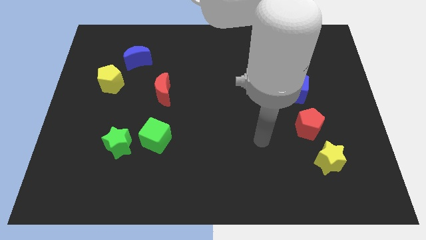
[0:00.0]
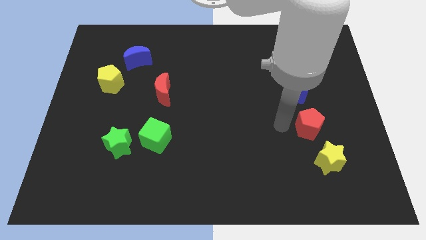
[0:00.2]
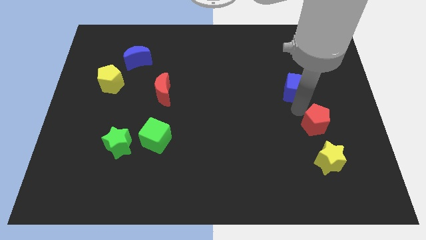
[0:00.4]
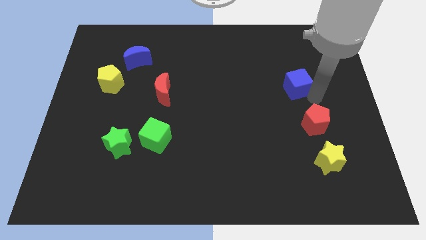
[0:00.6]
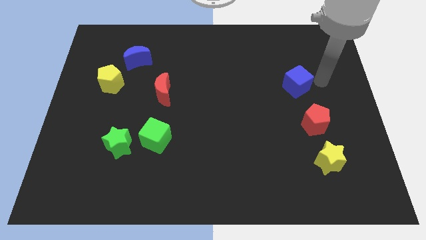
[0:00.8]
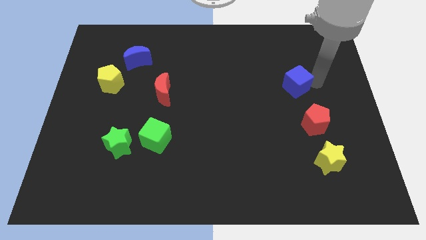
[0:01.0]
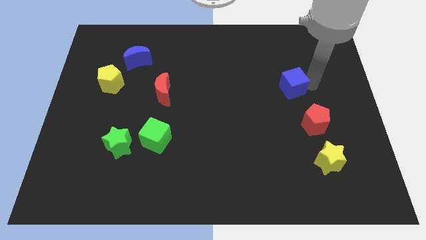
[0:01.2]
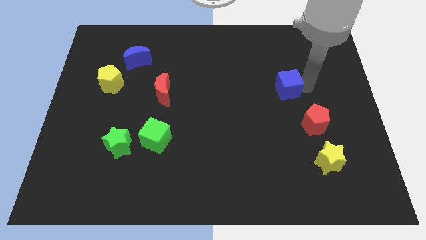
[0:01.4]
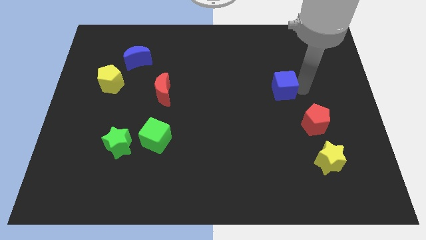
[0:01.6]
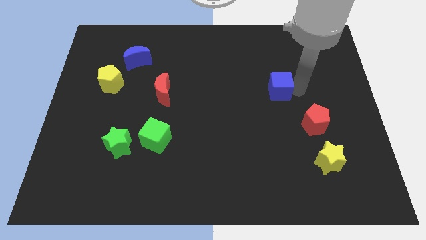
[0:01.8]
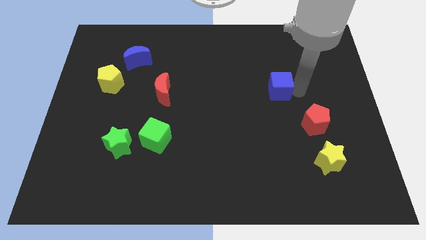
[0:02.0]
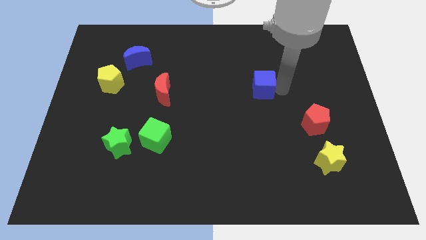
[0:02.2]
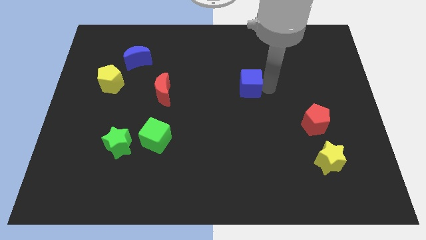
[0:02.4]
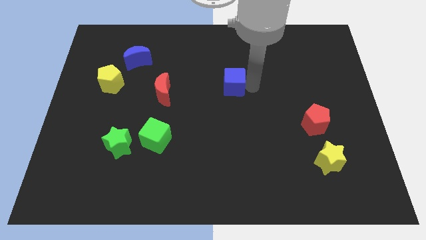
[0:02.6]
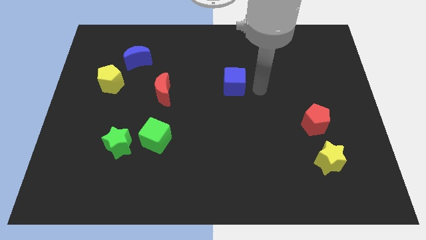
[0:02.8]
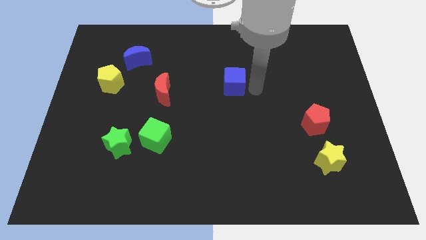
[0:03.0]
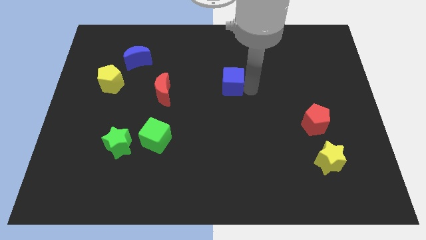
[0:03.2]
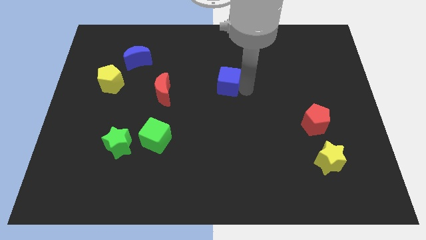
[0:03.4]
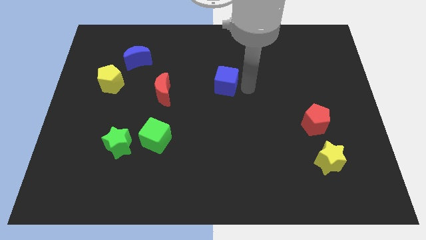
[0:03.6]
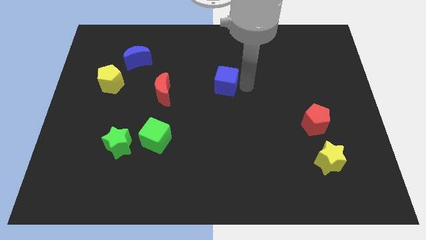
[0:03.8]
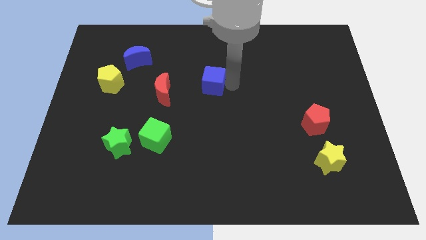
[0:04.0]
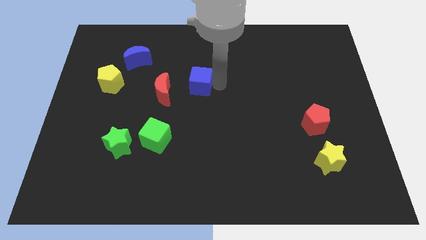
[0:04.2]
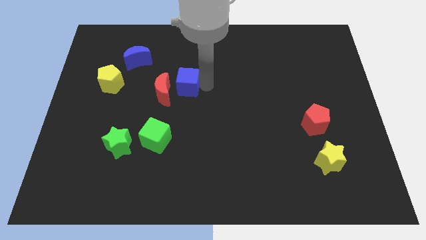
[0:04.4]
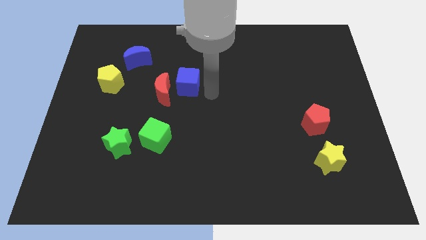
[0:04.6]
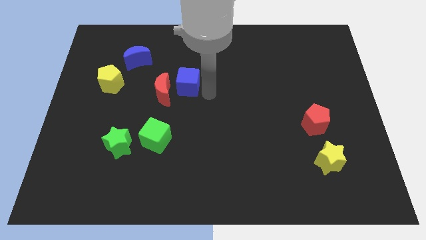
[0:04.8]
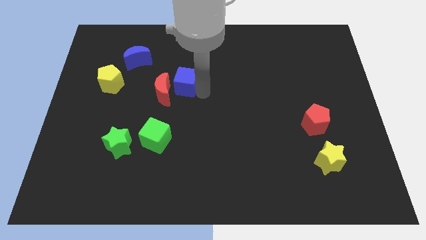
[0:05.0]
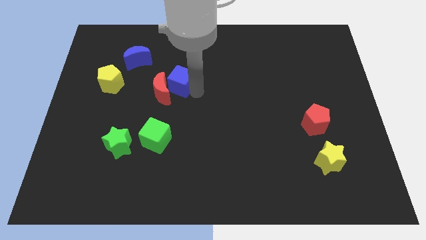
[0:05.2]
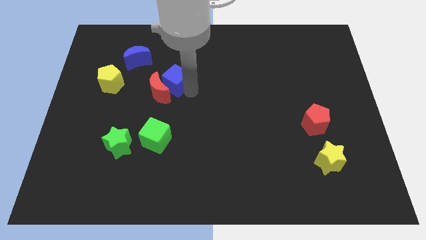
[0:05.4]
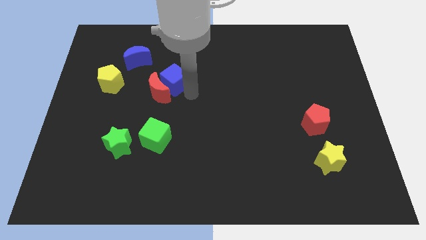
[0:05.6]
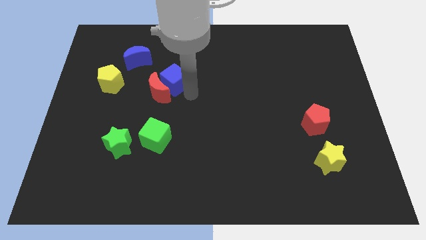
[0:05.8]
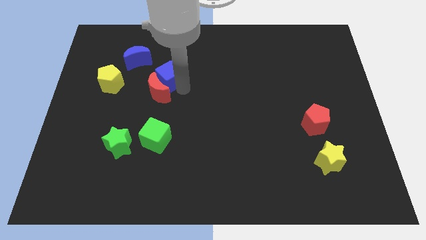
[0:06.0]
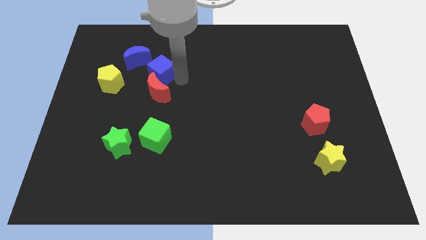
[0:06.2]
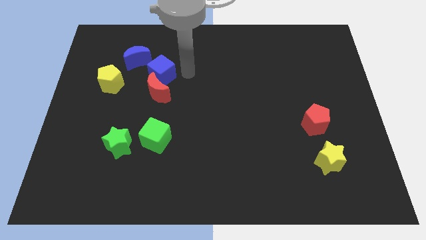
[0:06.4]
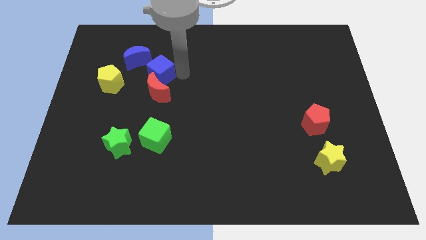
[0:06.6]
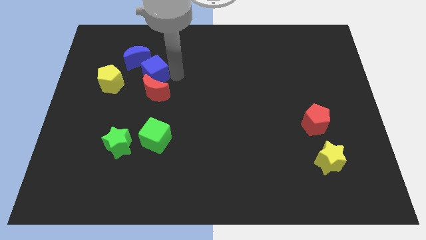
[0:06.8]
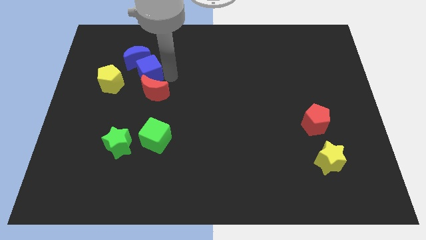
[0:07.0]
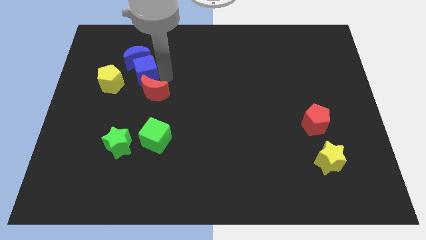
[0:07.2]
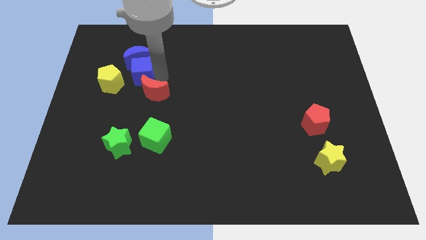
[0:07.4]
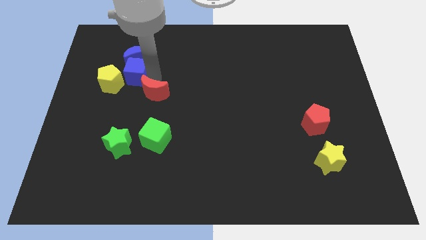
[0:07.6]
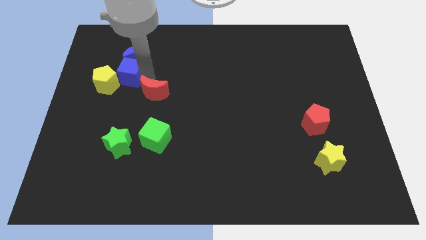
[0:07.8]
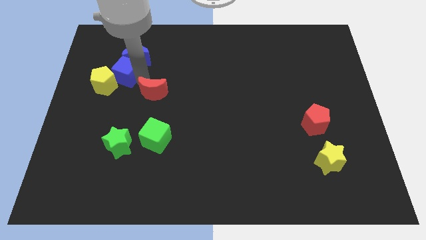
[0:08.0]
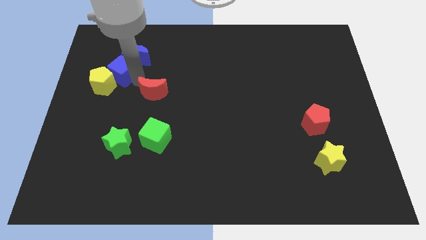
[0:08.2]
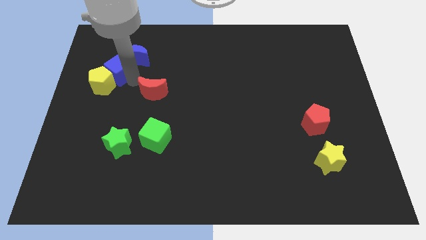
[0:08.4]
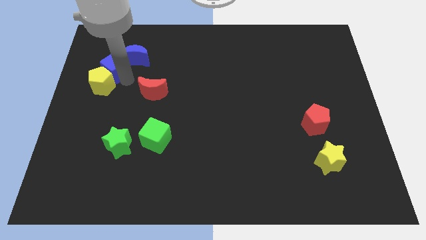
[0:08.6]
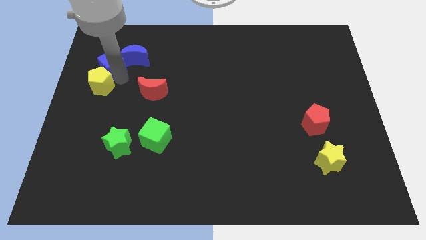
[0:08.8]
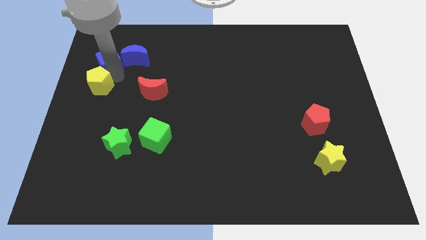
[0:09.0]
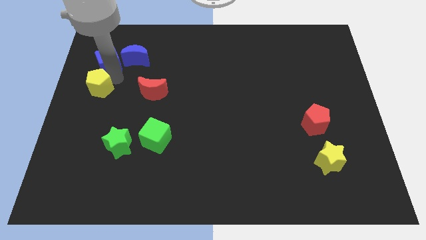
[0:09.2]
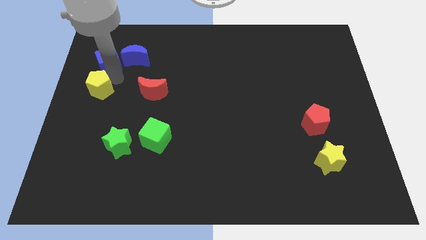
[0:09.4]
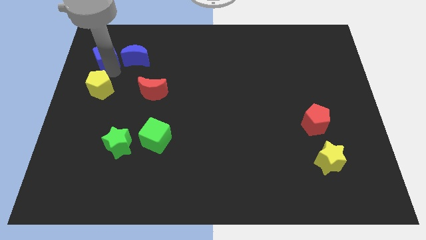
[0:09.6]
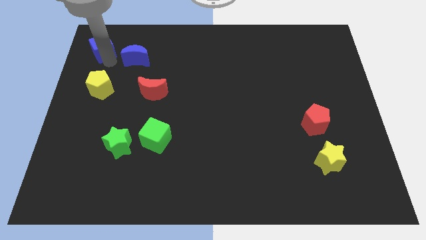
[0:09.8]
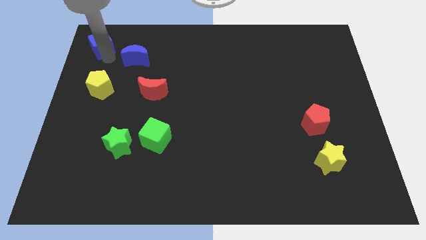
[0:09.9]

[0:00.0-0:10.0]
push the blue cube to the top left of the board

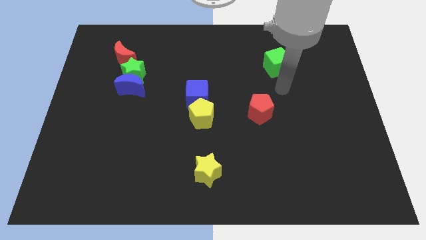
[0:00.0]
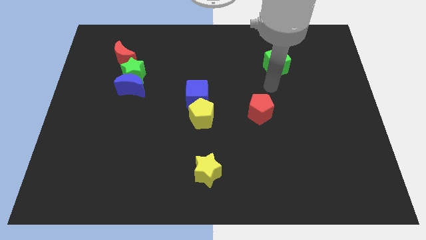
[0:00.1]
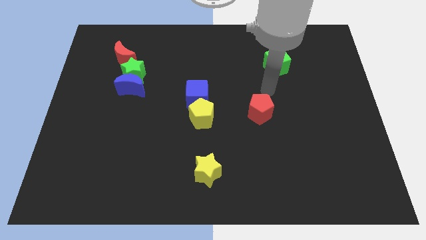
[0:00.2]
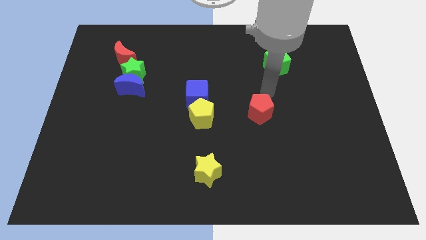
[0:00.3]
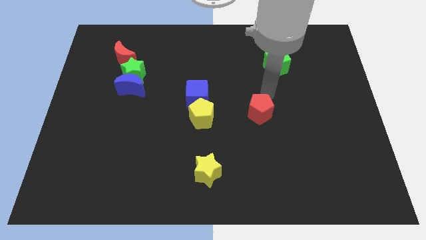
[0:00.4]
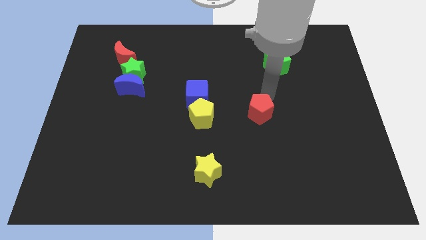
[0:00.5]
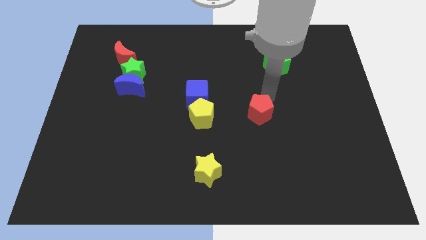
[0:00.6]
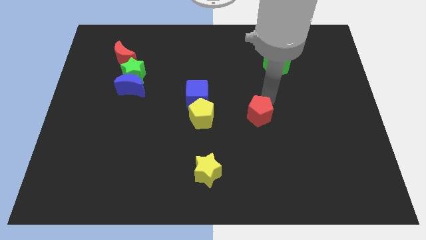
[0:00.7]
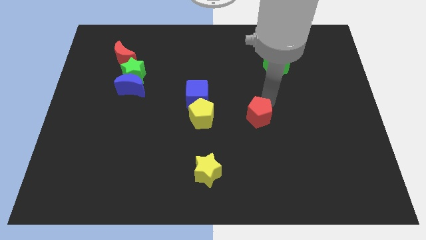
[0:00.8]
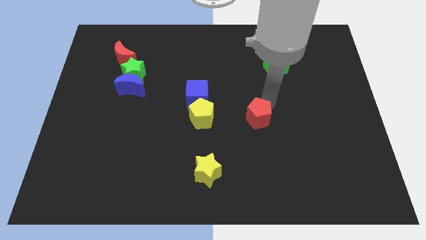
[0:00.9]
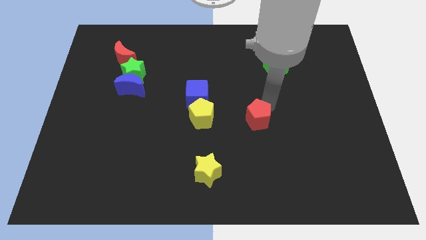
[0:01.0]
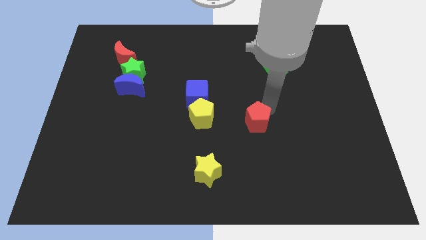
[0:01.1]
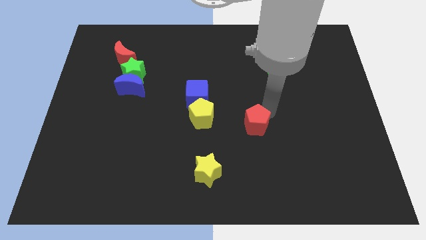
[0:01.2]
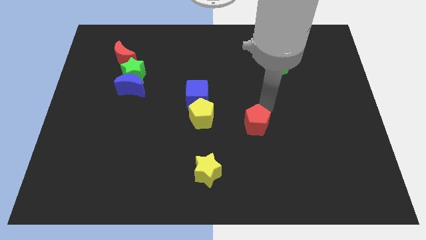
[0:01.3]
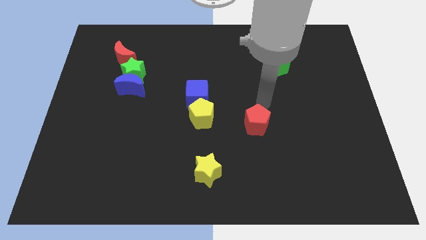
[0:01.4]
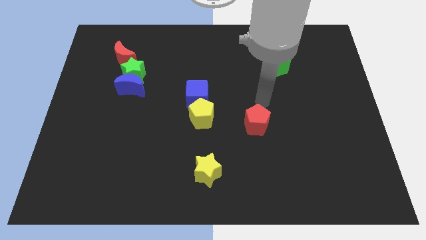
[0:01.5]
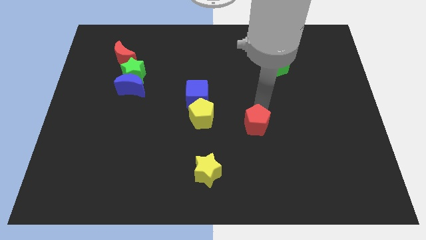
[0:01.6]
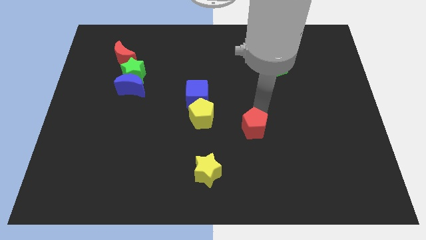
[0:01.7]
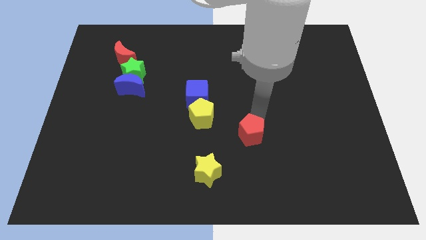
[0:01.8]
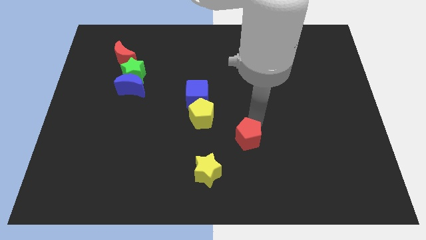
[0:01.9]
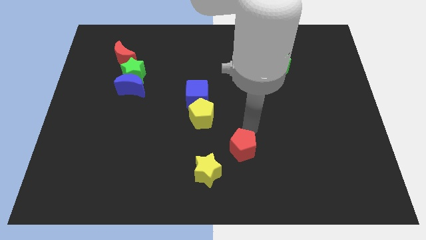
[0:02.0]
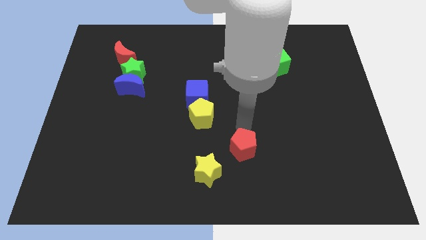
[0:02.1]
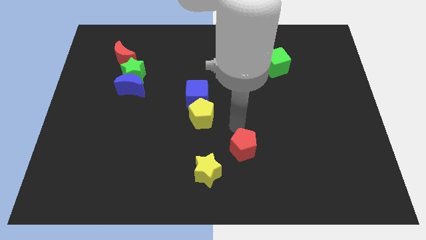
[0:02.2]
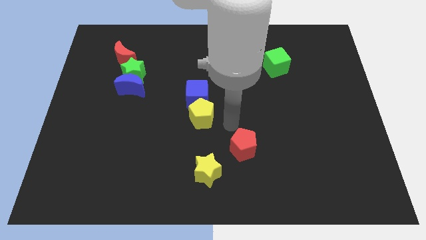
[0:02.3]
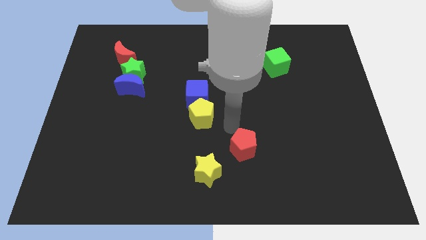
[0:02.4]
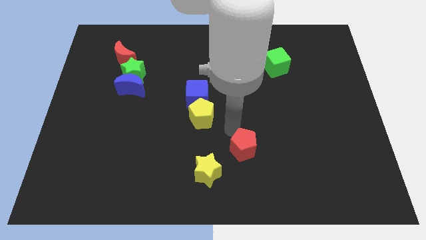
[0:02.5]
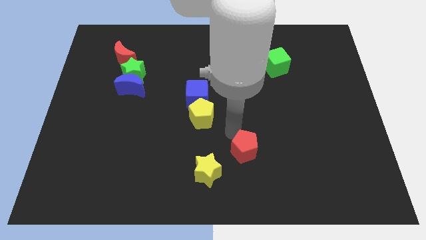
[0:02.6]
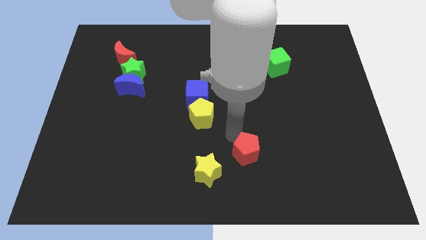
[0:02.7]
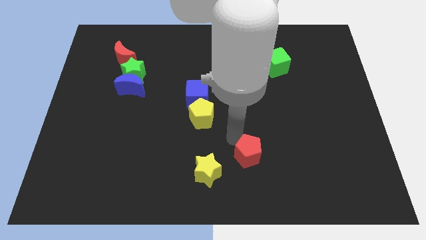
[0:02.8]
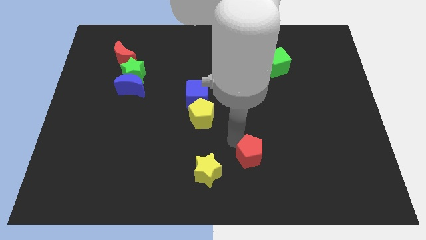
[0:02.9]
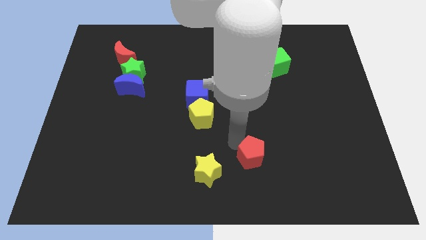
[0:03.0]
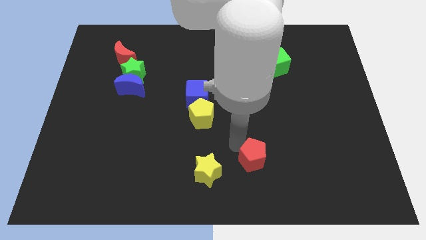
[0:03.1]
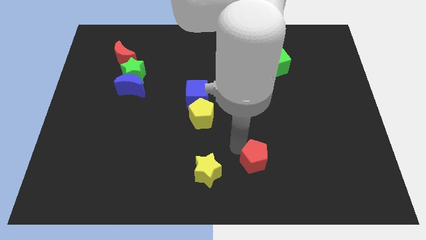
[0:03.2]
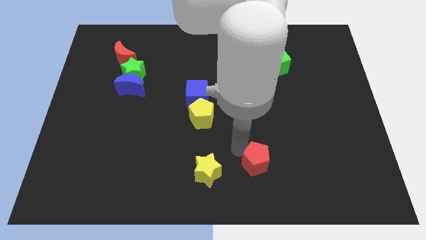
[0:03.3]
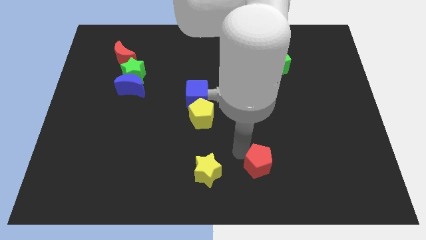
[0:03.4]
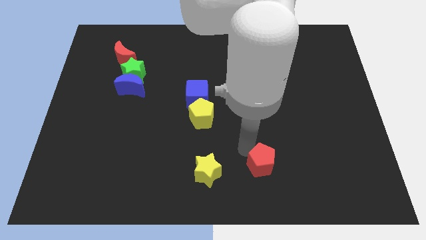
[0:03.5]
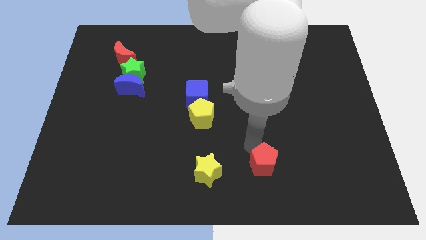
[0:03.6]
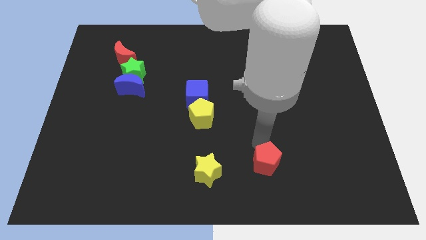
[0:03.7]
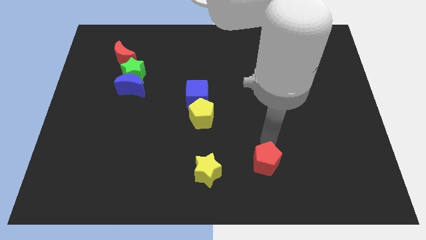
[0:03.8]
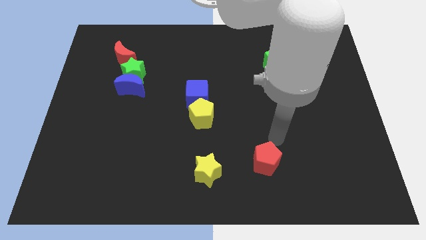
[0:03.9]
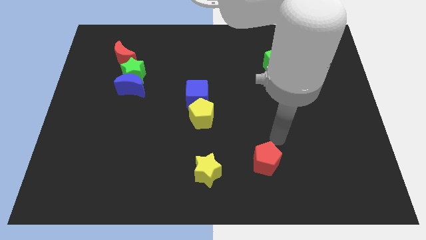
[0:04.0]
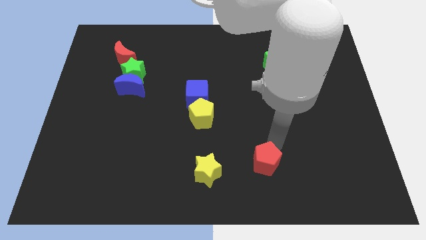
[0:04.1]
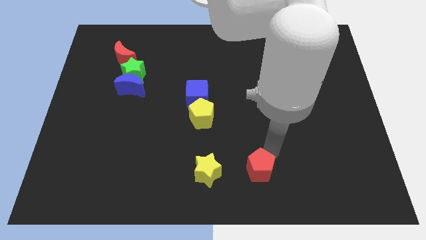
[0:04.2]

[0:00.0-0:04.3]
push the red pentagon to the bottom
